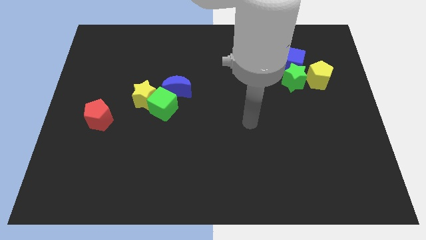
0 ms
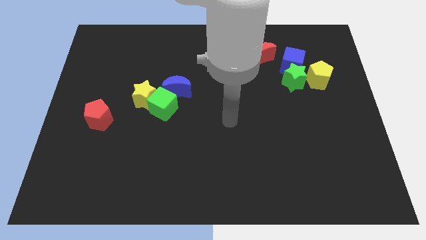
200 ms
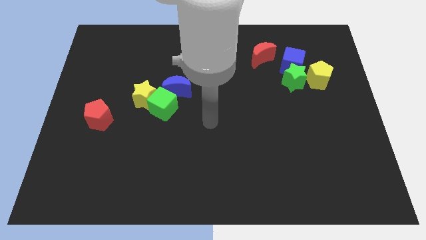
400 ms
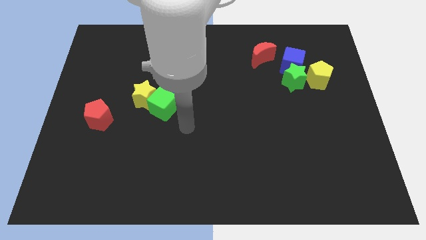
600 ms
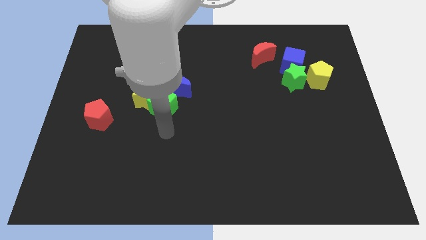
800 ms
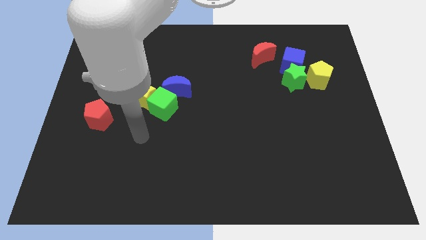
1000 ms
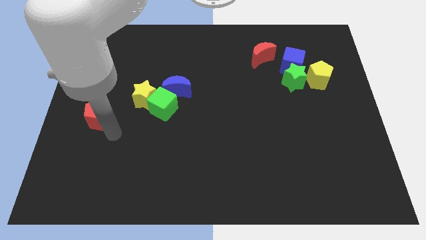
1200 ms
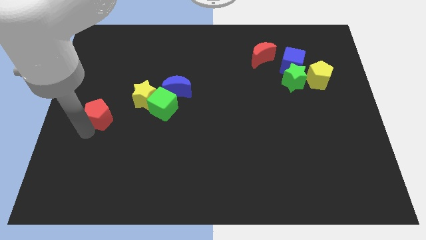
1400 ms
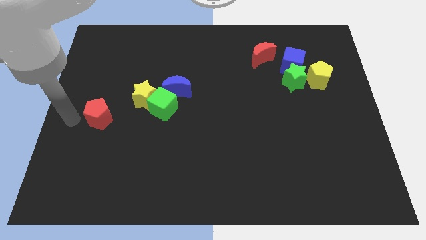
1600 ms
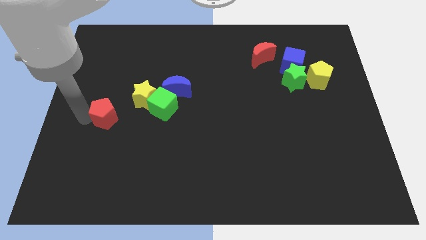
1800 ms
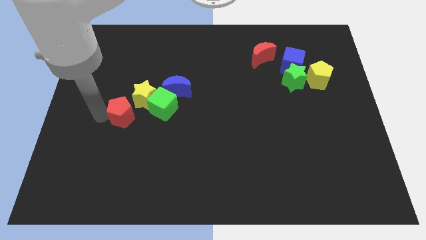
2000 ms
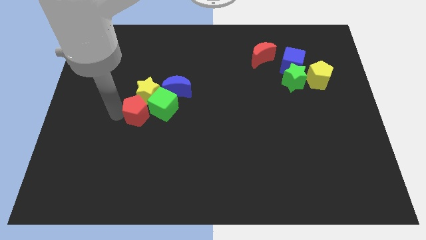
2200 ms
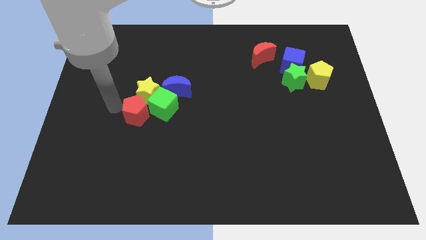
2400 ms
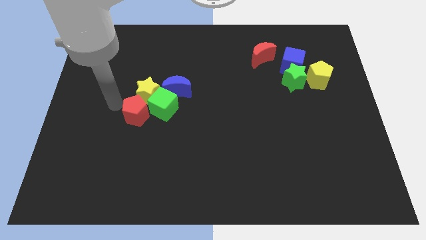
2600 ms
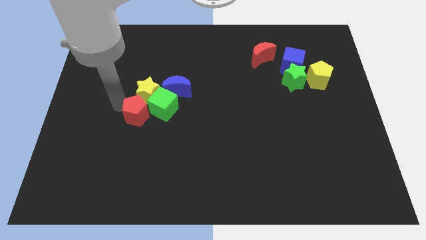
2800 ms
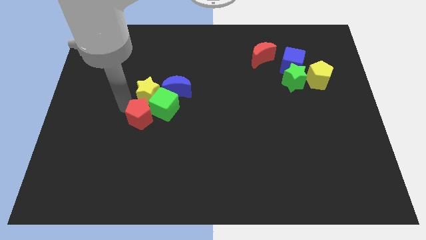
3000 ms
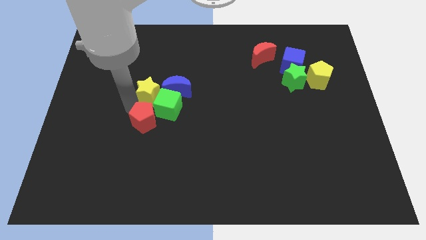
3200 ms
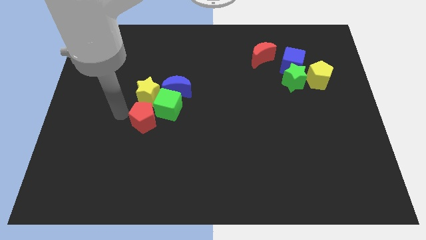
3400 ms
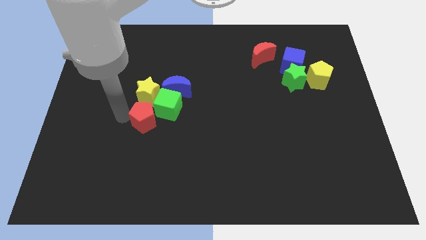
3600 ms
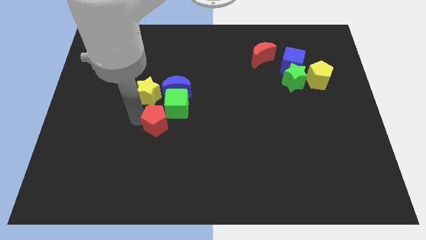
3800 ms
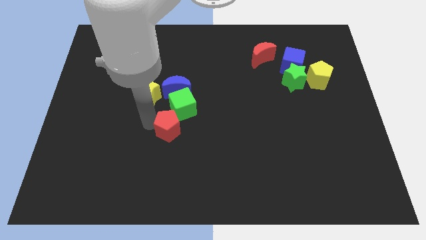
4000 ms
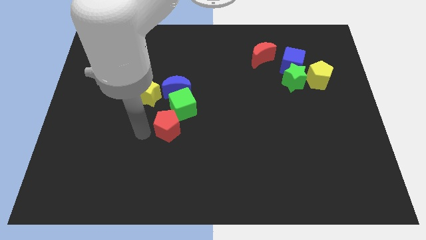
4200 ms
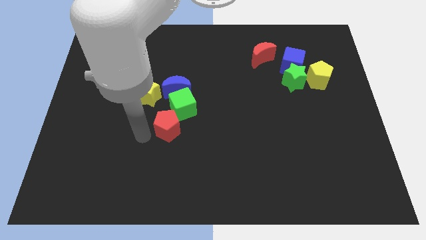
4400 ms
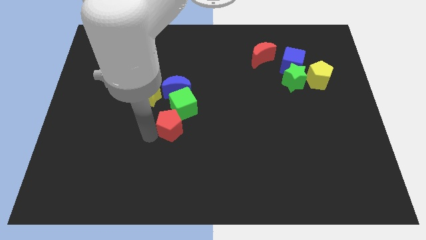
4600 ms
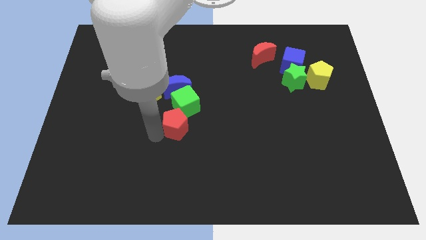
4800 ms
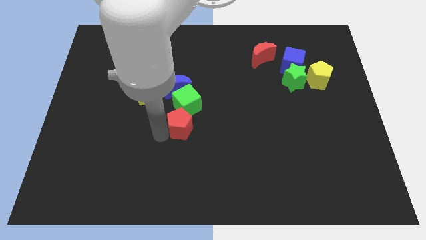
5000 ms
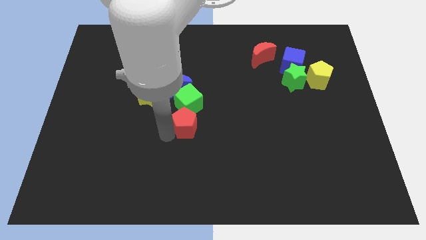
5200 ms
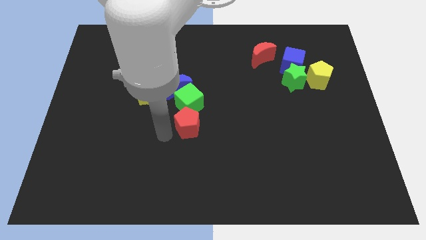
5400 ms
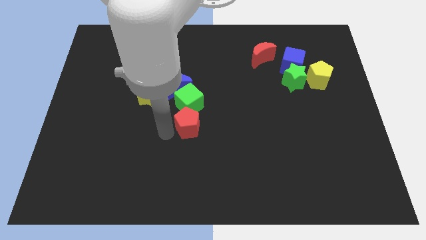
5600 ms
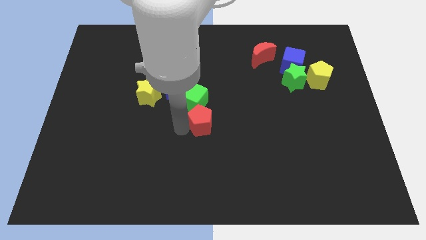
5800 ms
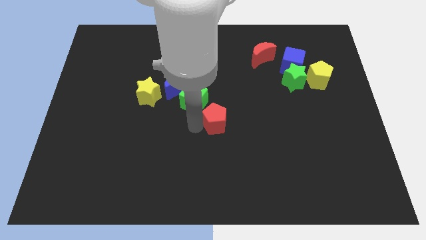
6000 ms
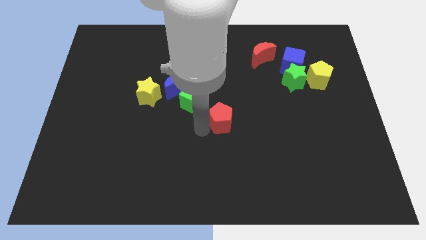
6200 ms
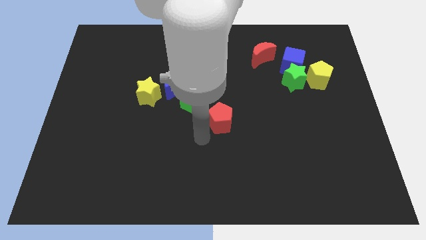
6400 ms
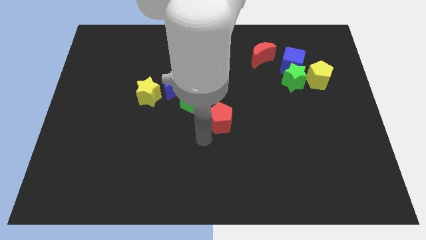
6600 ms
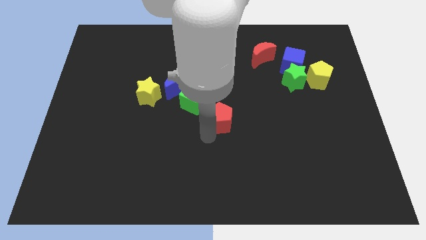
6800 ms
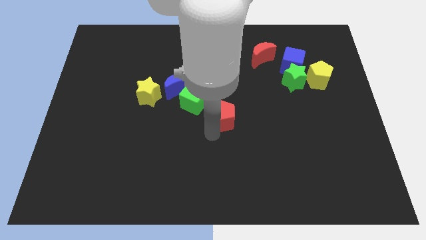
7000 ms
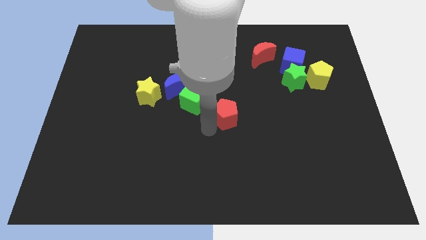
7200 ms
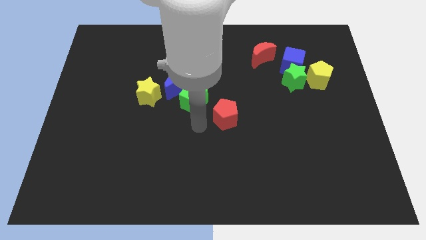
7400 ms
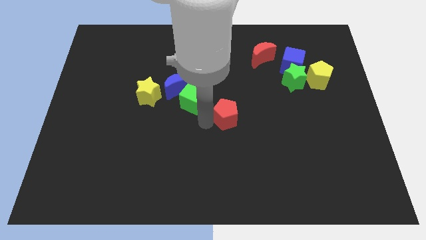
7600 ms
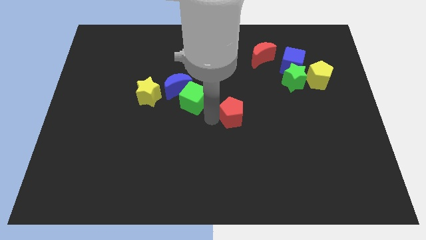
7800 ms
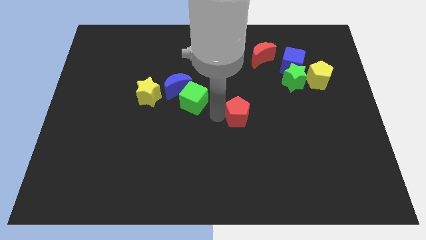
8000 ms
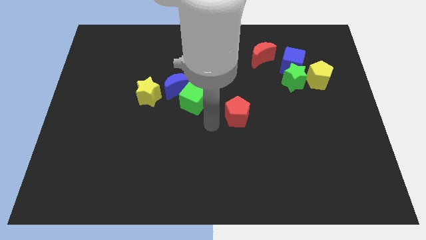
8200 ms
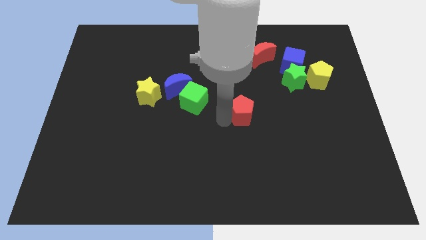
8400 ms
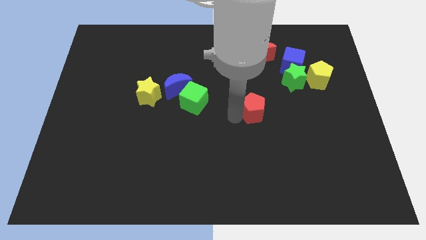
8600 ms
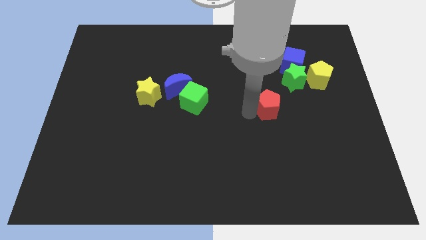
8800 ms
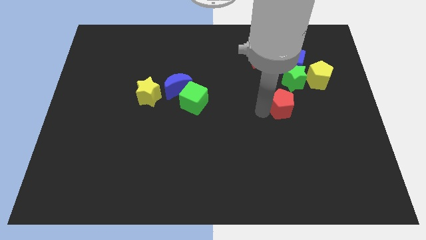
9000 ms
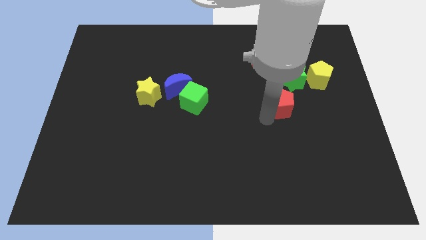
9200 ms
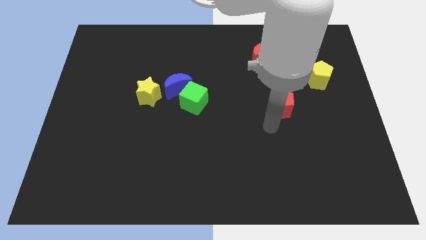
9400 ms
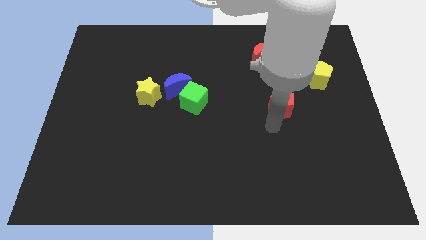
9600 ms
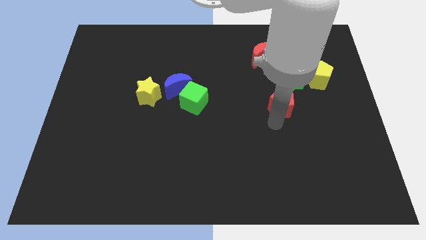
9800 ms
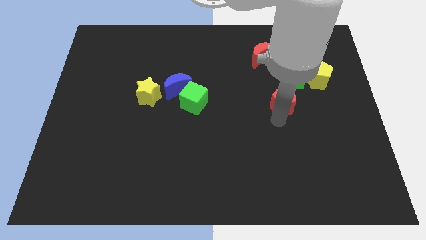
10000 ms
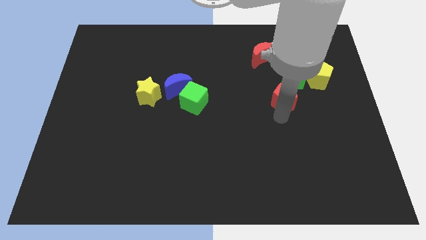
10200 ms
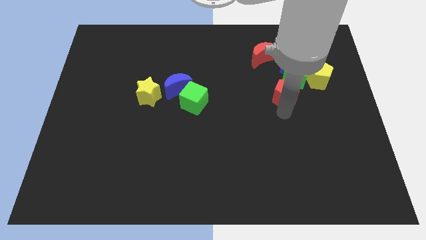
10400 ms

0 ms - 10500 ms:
move the red pentagon close to the green star

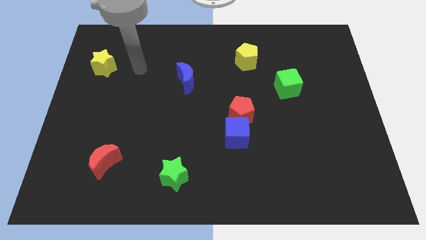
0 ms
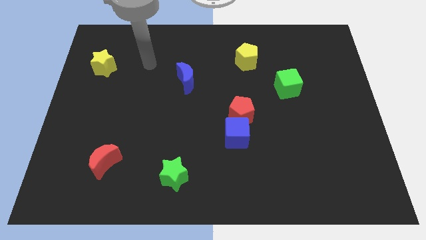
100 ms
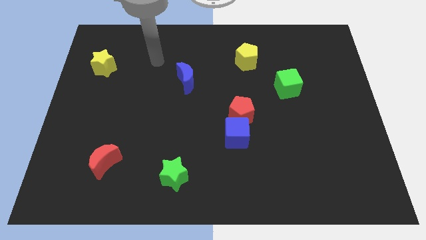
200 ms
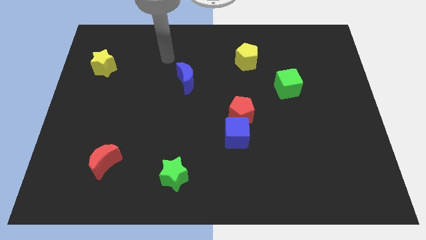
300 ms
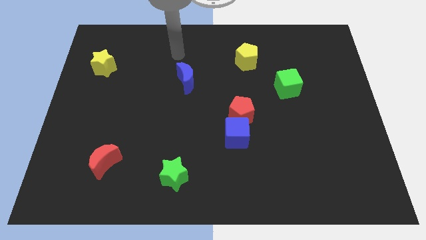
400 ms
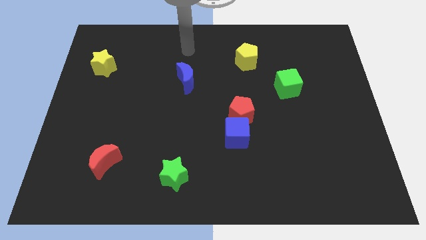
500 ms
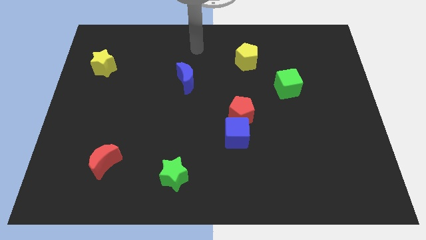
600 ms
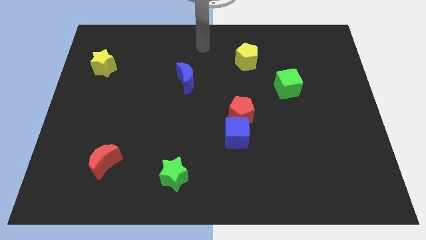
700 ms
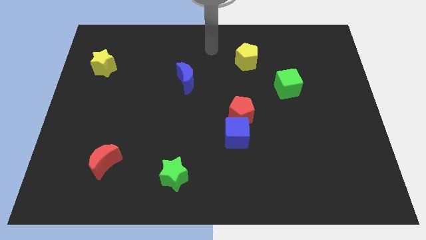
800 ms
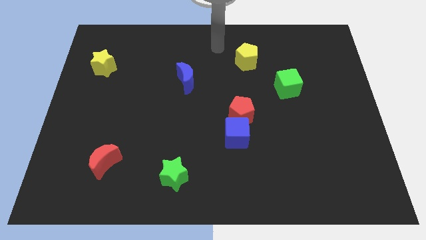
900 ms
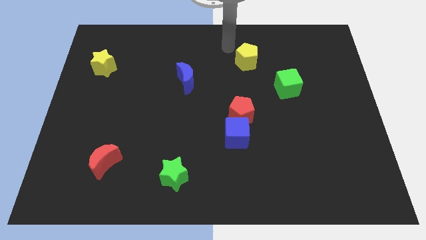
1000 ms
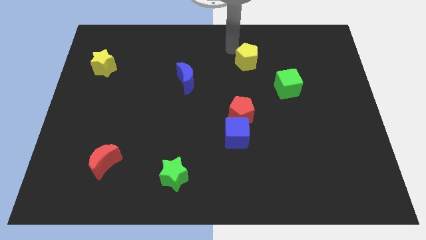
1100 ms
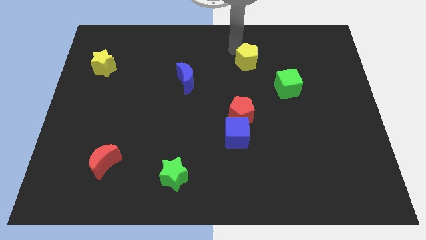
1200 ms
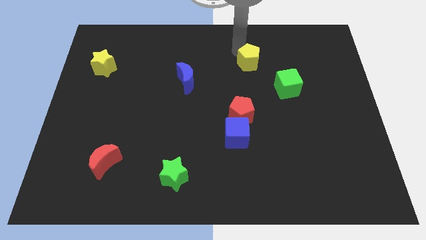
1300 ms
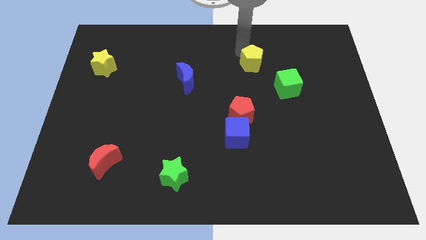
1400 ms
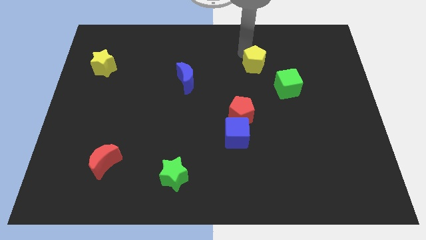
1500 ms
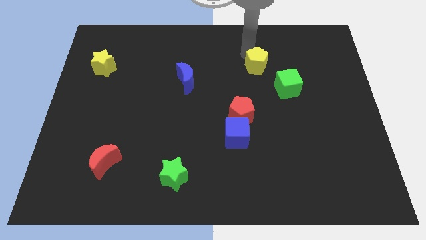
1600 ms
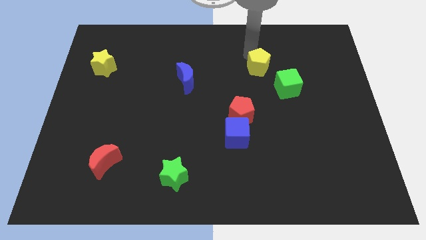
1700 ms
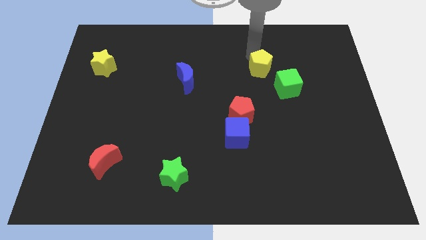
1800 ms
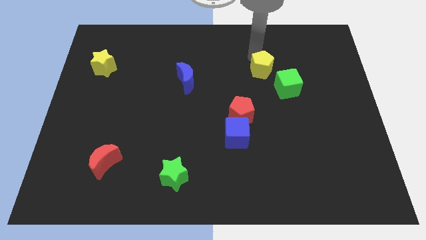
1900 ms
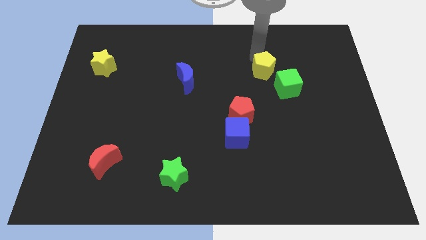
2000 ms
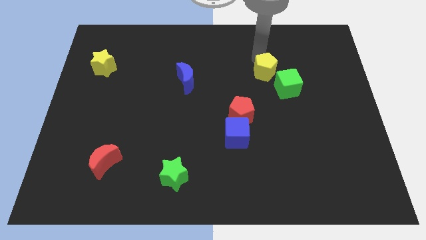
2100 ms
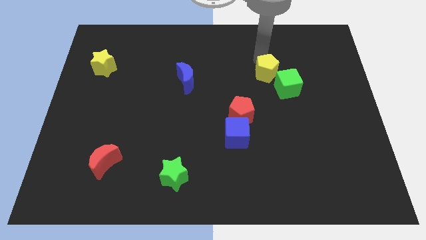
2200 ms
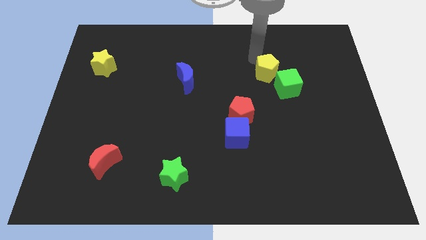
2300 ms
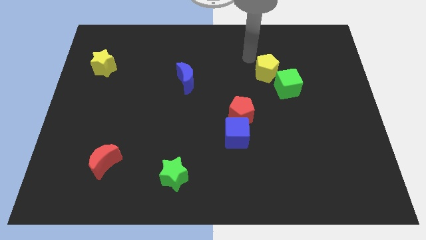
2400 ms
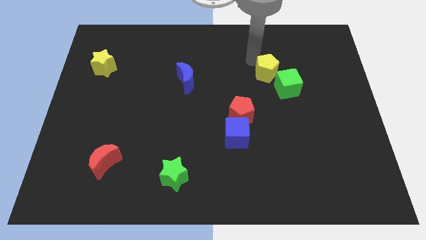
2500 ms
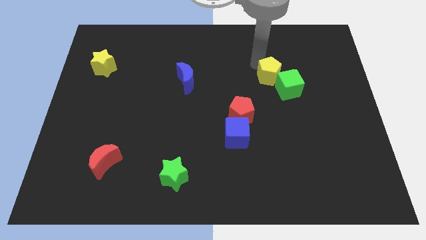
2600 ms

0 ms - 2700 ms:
put the yellow pentagon close to the green cube

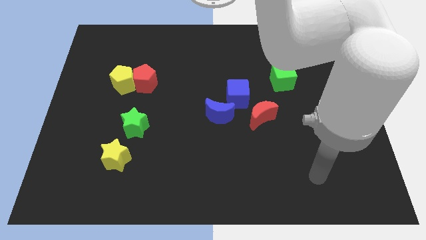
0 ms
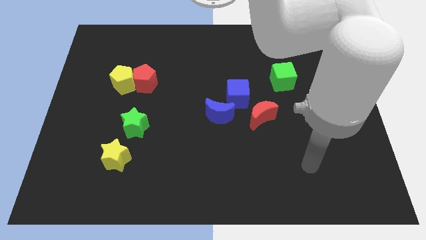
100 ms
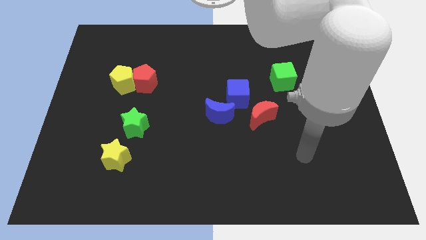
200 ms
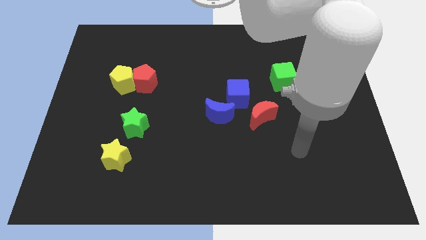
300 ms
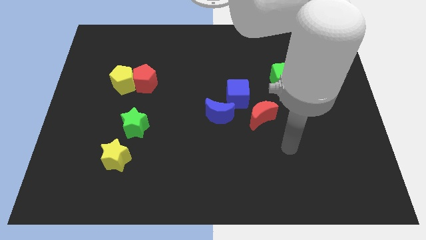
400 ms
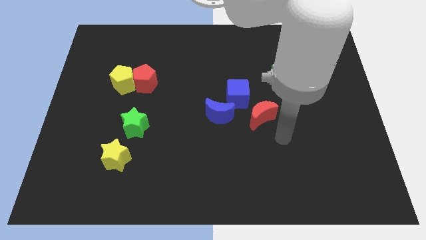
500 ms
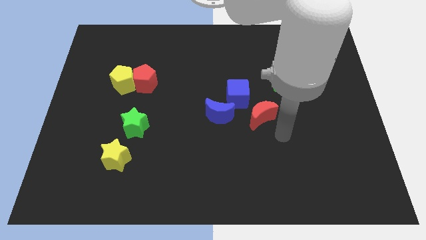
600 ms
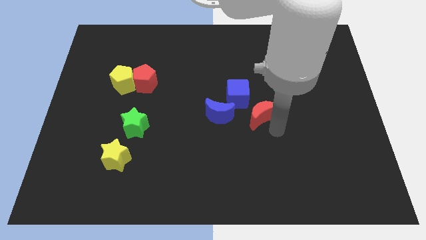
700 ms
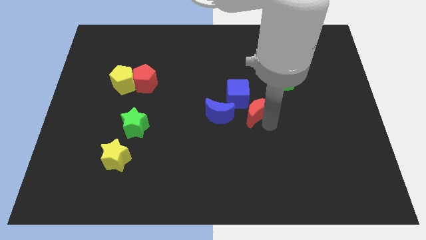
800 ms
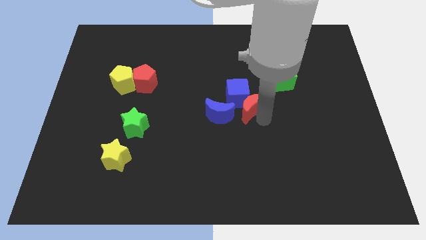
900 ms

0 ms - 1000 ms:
push the red moon close to the blue cube
